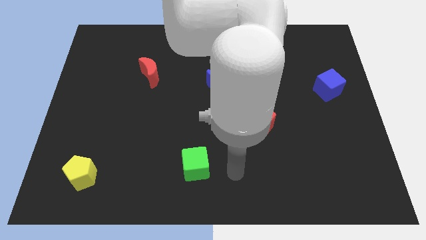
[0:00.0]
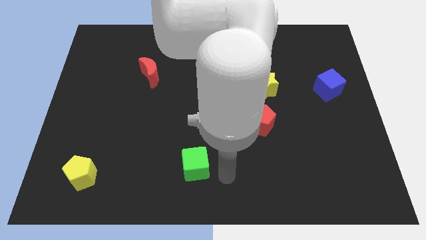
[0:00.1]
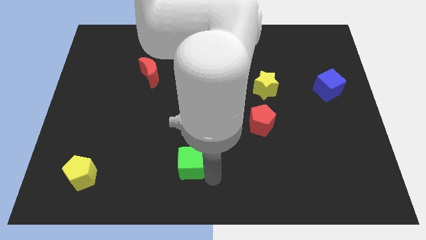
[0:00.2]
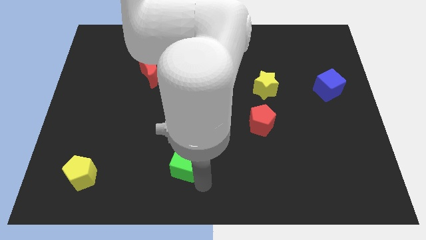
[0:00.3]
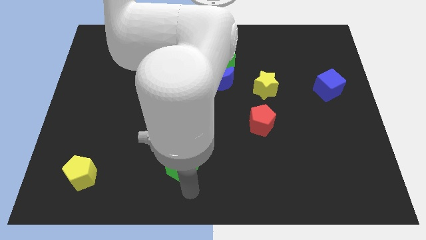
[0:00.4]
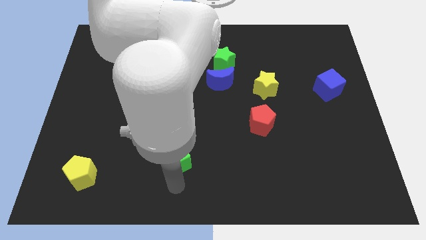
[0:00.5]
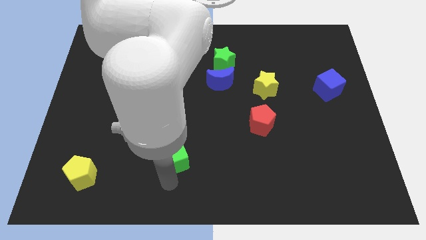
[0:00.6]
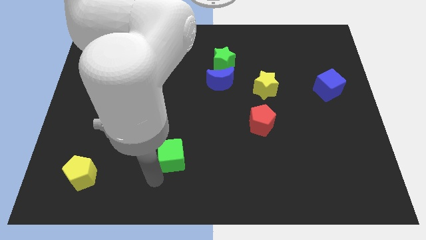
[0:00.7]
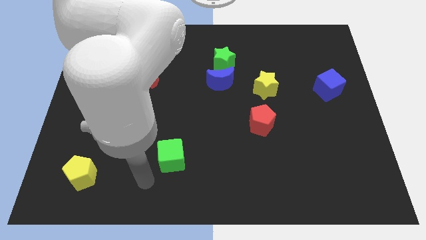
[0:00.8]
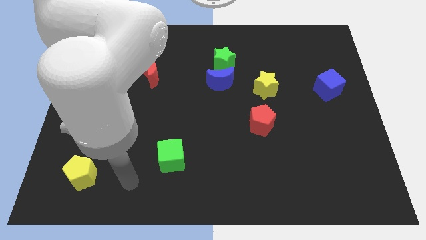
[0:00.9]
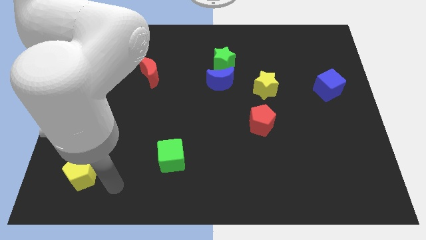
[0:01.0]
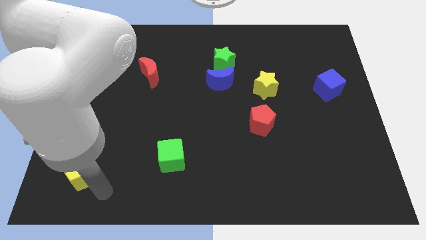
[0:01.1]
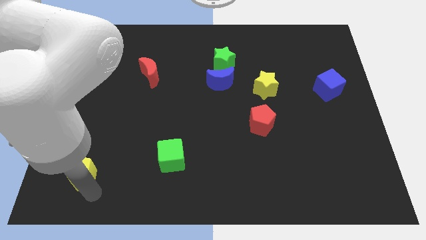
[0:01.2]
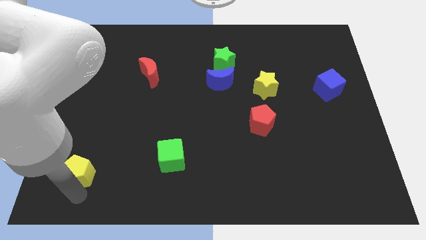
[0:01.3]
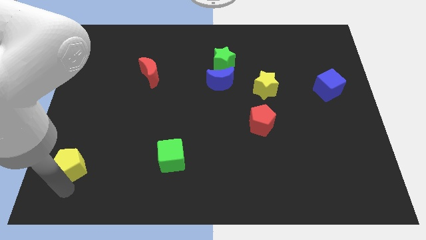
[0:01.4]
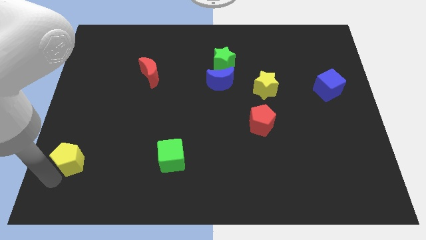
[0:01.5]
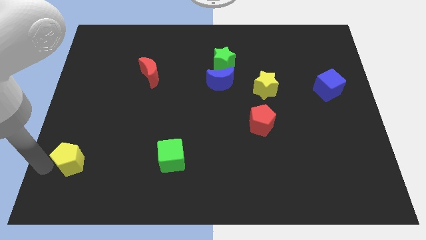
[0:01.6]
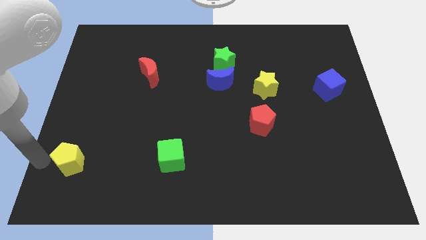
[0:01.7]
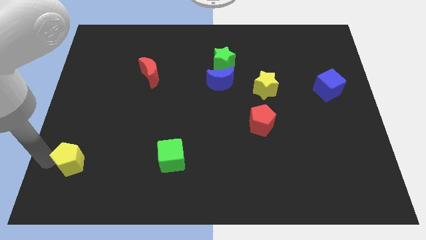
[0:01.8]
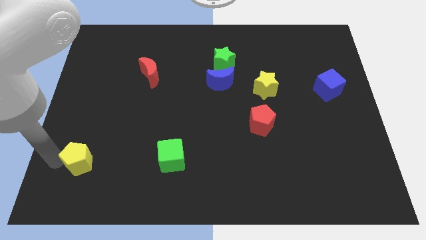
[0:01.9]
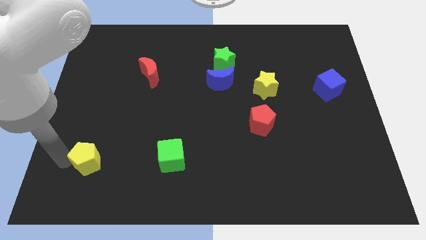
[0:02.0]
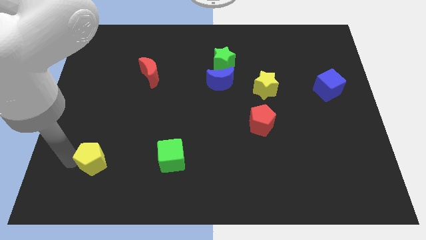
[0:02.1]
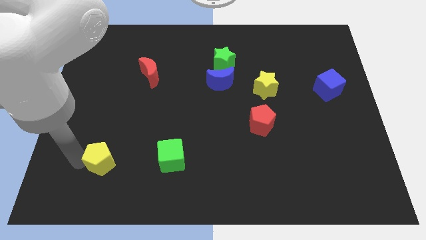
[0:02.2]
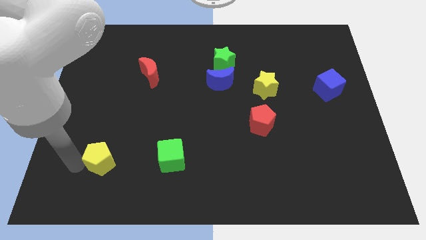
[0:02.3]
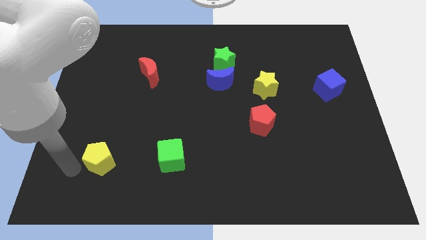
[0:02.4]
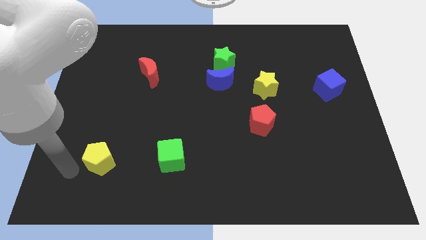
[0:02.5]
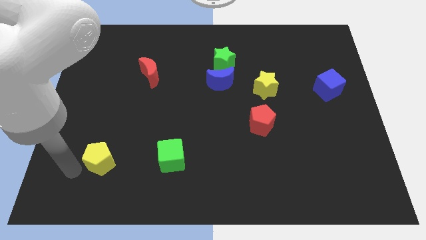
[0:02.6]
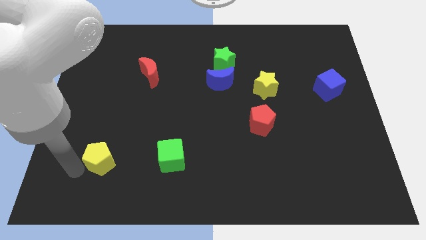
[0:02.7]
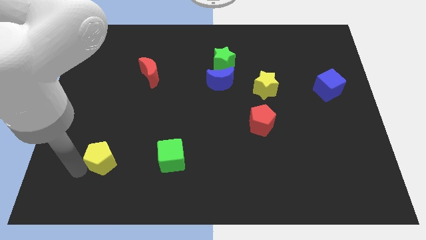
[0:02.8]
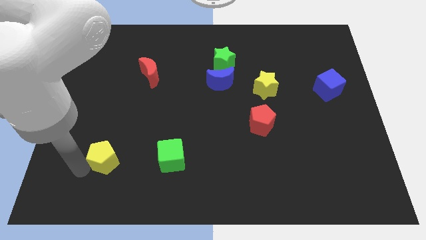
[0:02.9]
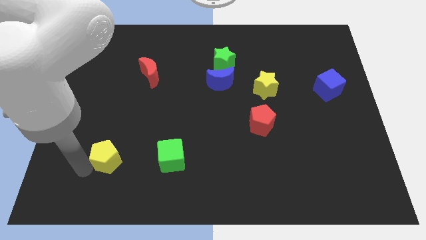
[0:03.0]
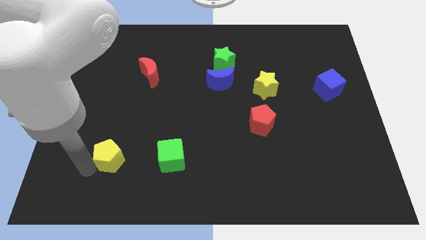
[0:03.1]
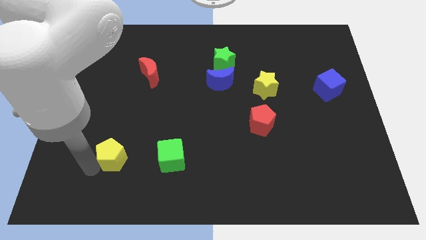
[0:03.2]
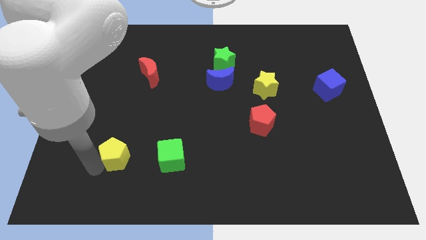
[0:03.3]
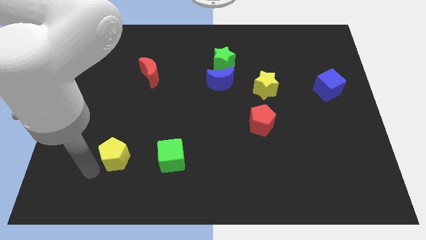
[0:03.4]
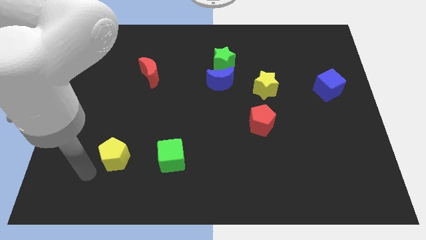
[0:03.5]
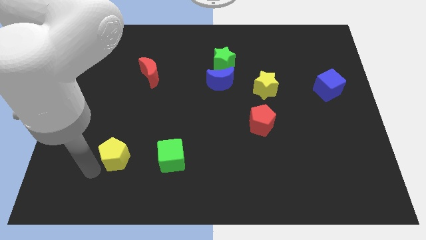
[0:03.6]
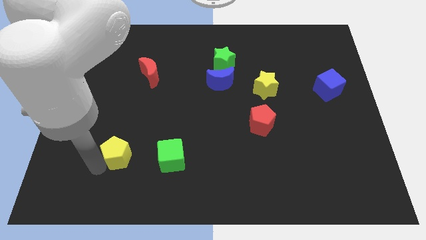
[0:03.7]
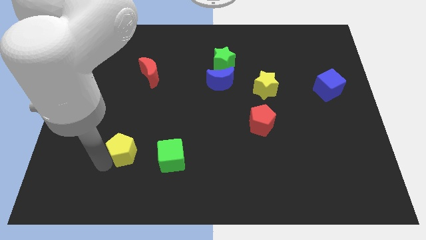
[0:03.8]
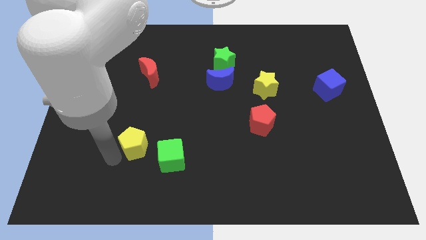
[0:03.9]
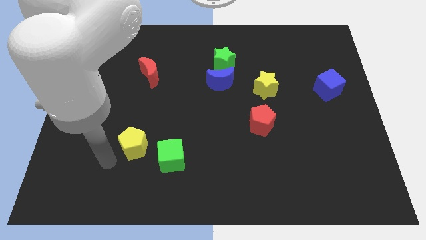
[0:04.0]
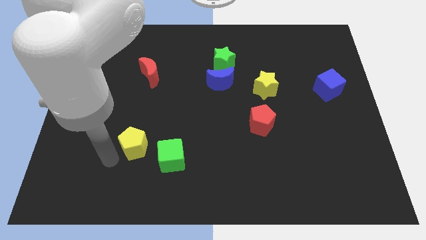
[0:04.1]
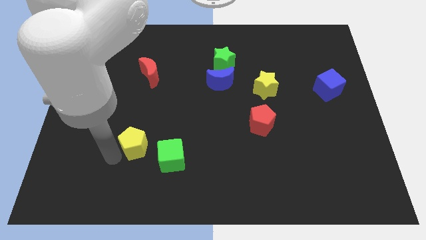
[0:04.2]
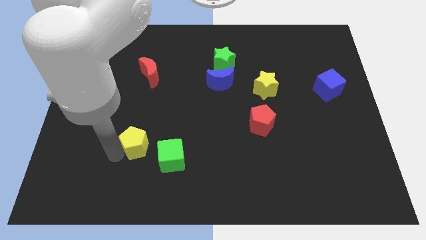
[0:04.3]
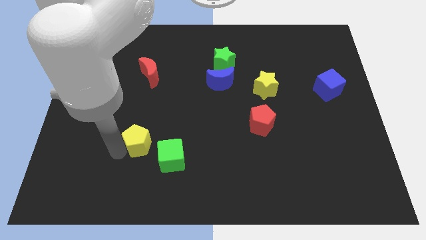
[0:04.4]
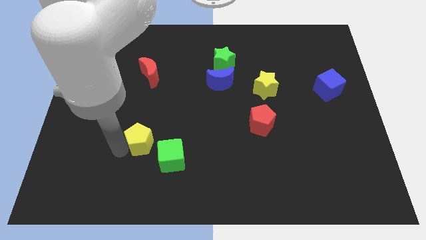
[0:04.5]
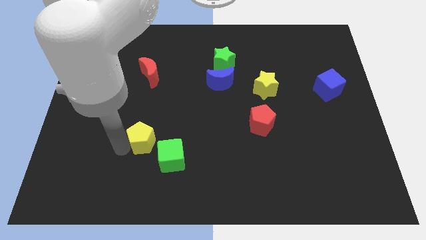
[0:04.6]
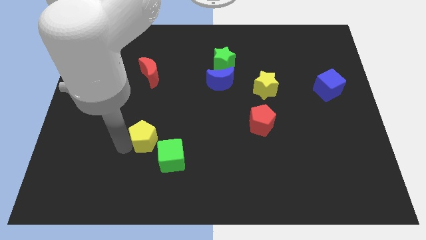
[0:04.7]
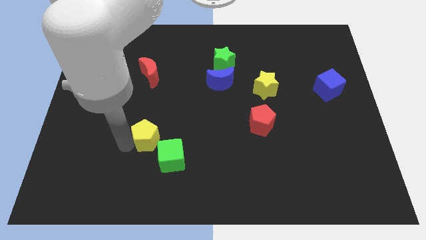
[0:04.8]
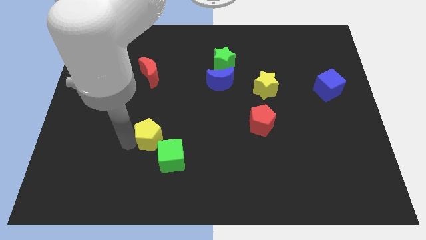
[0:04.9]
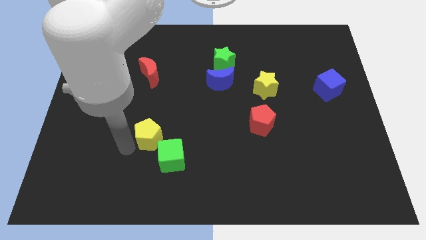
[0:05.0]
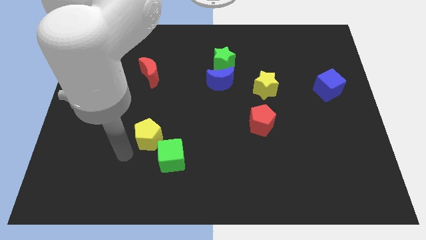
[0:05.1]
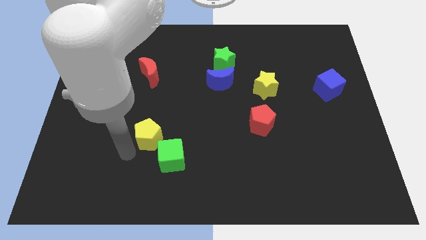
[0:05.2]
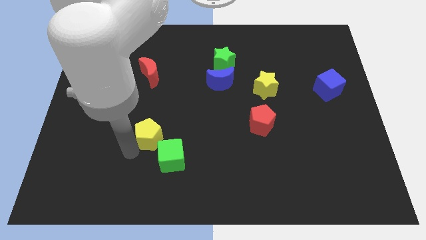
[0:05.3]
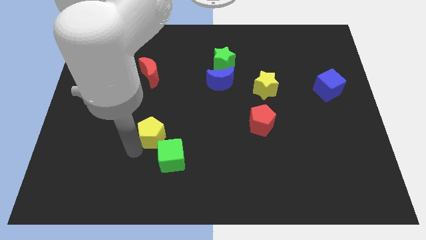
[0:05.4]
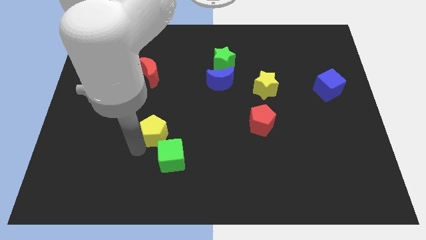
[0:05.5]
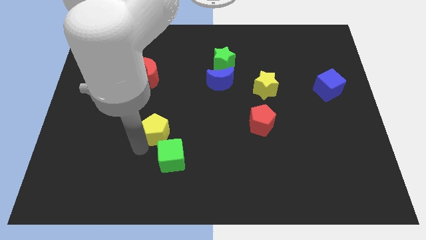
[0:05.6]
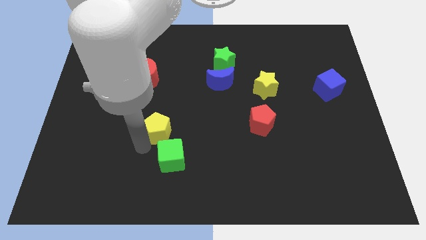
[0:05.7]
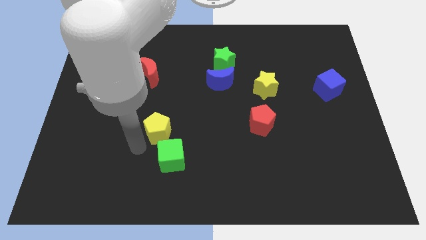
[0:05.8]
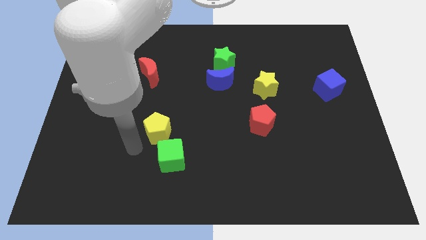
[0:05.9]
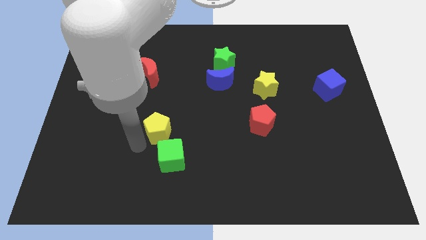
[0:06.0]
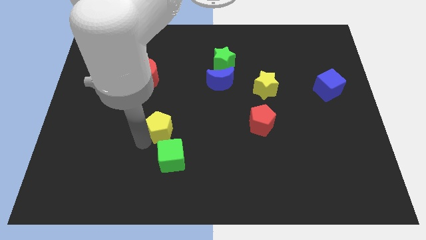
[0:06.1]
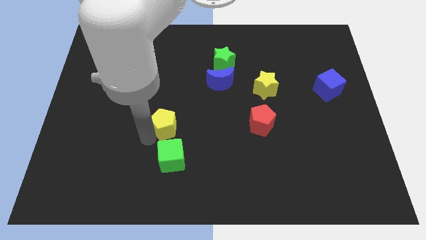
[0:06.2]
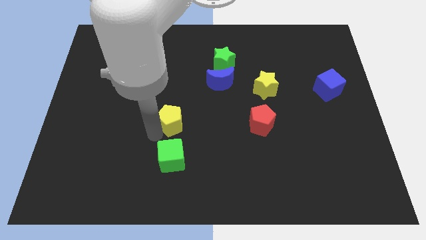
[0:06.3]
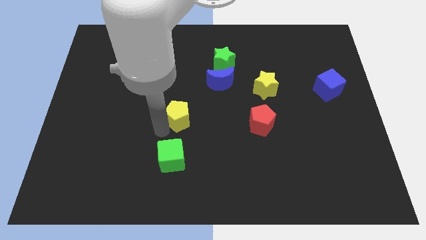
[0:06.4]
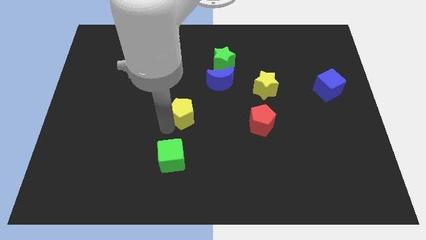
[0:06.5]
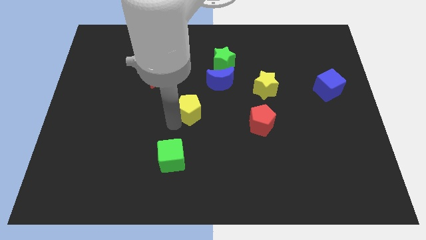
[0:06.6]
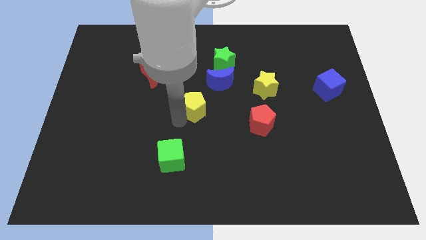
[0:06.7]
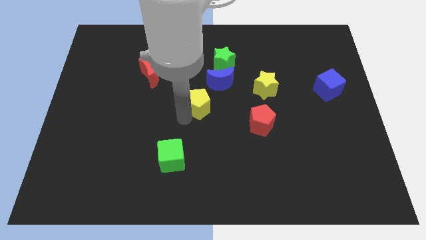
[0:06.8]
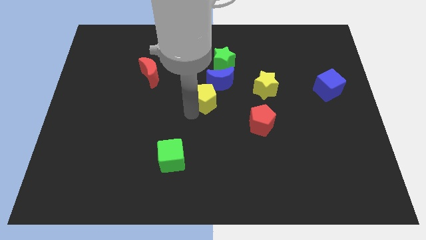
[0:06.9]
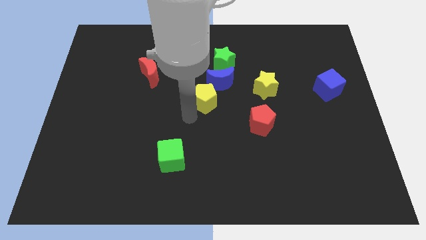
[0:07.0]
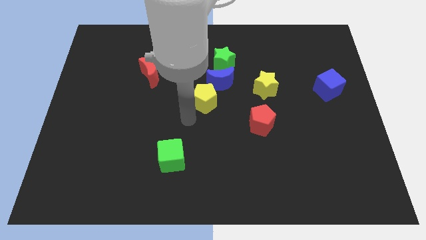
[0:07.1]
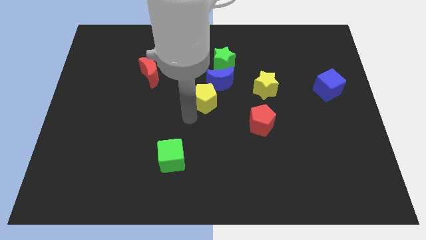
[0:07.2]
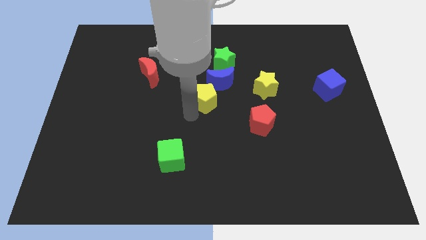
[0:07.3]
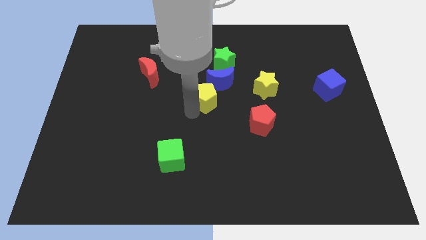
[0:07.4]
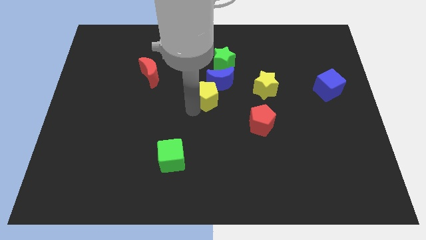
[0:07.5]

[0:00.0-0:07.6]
put the yellow pentagon to the blue moon

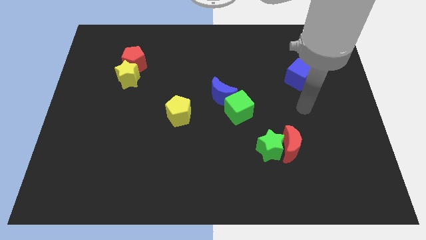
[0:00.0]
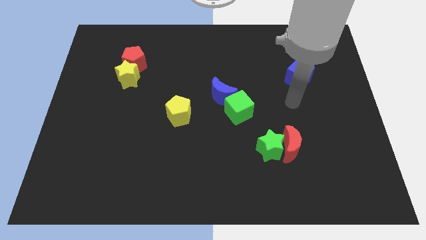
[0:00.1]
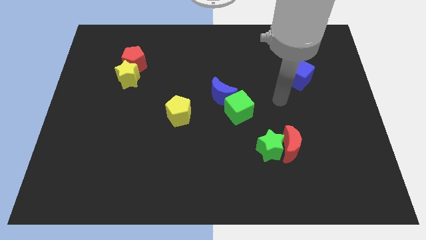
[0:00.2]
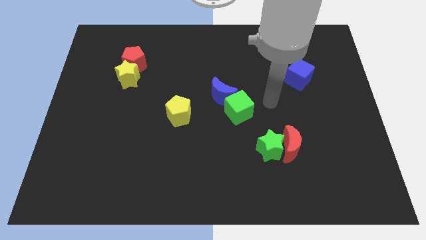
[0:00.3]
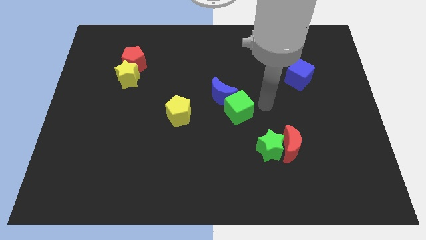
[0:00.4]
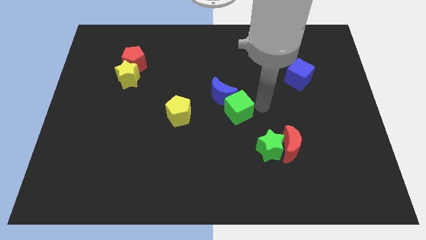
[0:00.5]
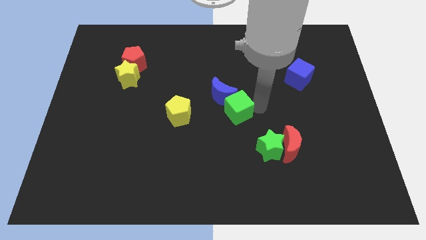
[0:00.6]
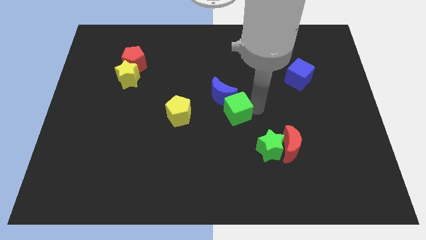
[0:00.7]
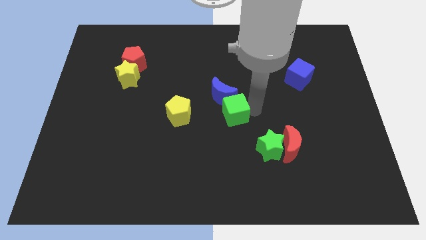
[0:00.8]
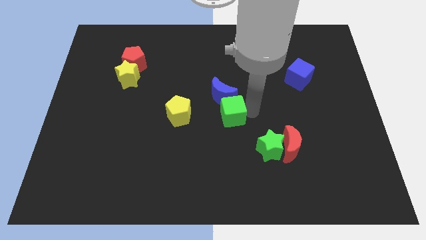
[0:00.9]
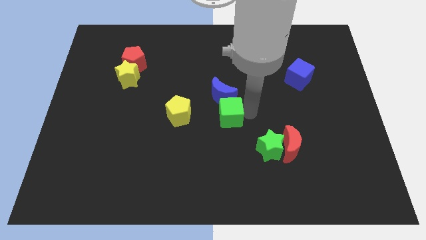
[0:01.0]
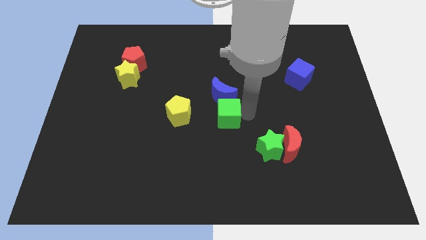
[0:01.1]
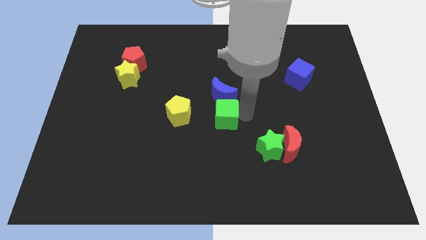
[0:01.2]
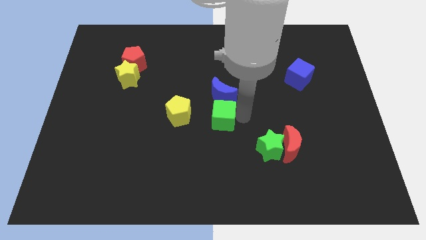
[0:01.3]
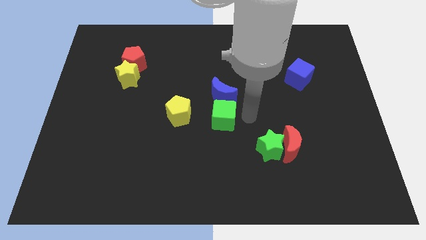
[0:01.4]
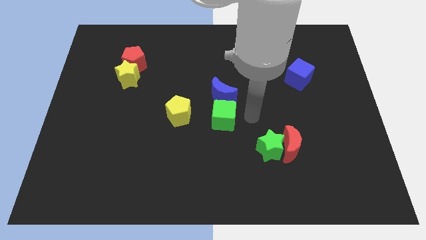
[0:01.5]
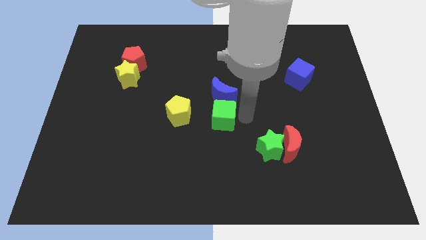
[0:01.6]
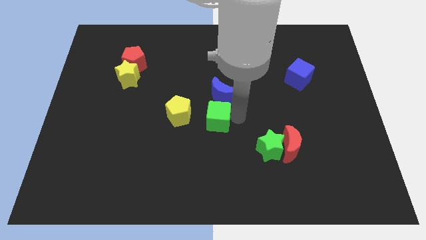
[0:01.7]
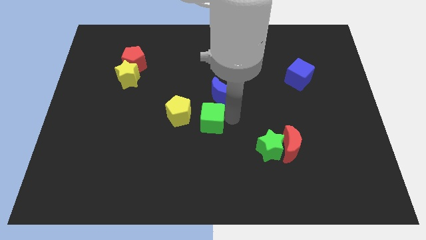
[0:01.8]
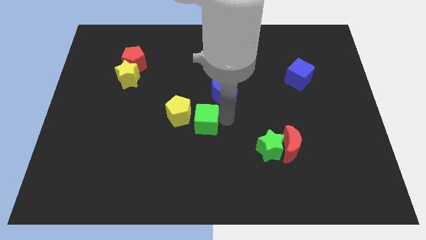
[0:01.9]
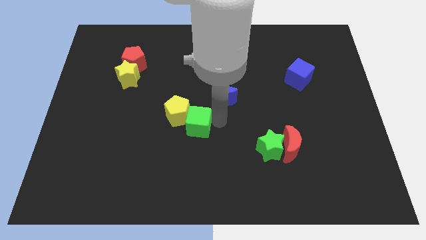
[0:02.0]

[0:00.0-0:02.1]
slide the green cube to the yellow pentagon
